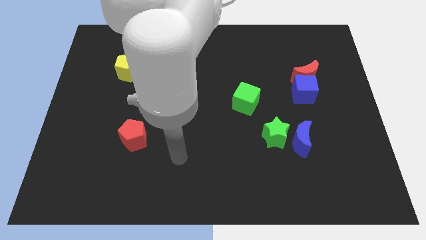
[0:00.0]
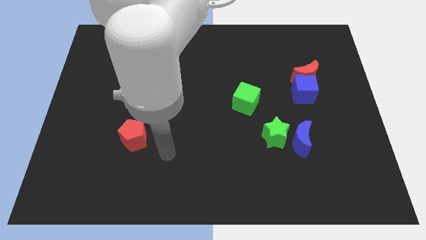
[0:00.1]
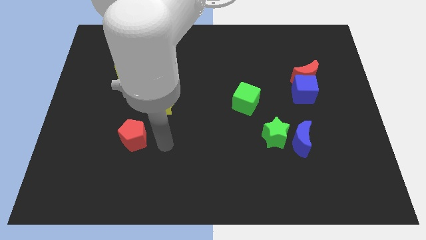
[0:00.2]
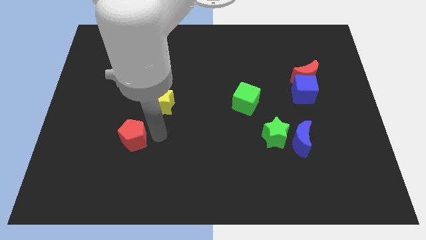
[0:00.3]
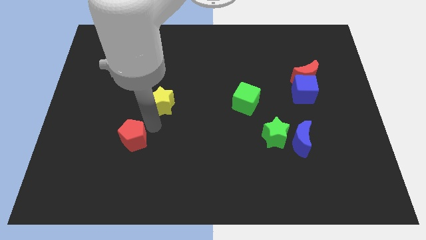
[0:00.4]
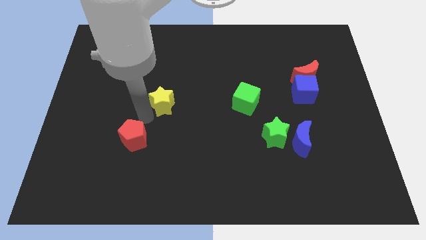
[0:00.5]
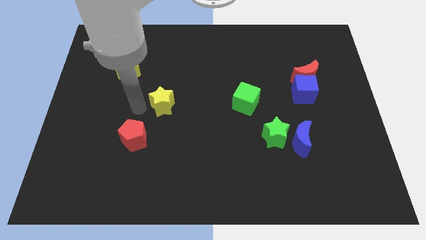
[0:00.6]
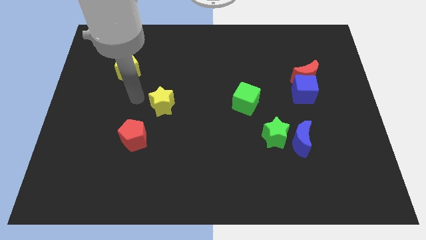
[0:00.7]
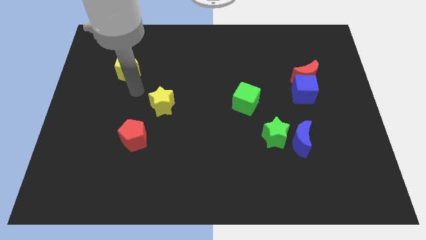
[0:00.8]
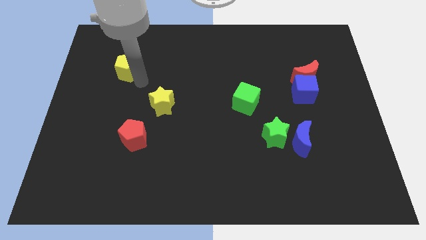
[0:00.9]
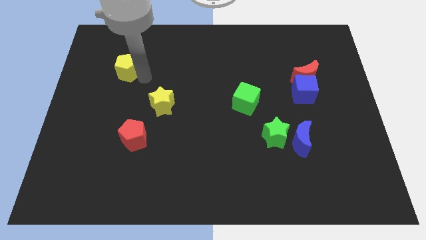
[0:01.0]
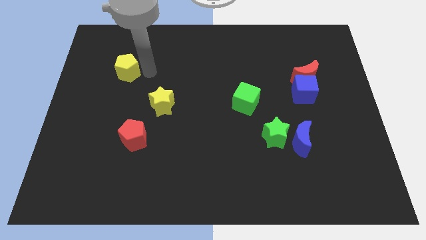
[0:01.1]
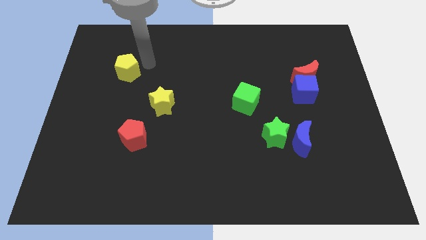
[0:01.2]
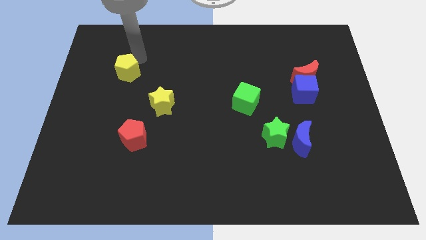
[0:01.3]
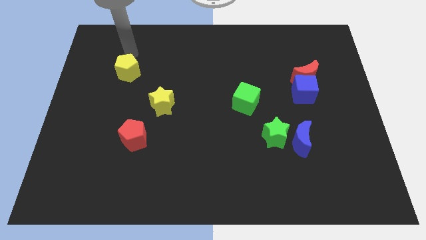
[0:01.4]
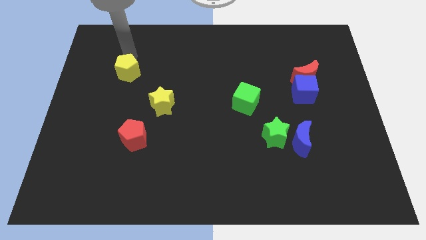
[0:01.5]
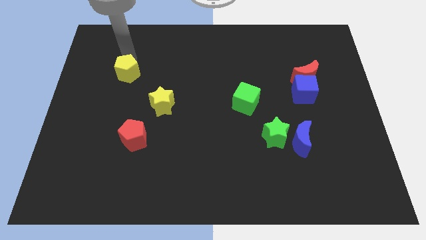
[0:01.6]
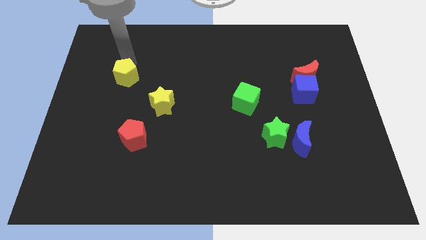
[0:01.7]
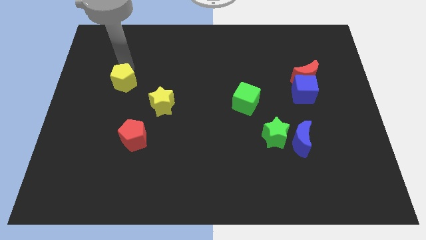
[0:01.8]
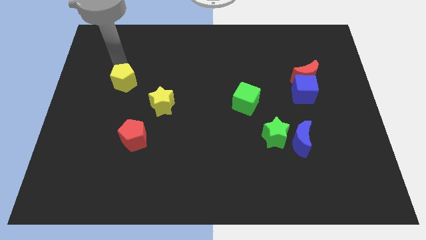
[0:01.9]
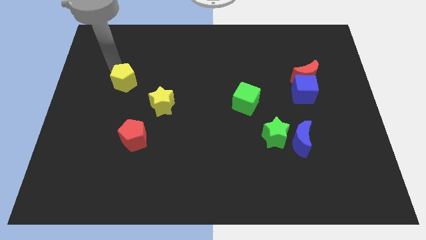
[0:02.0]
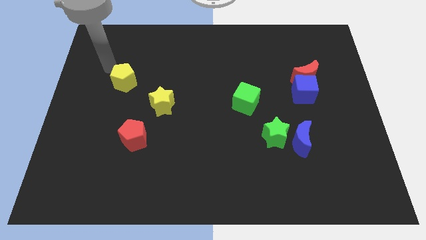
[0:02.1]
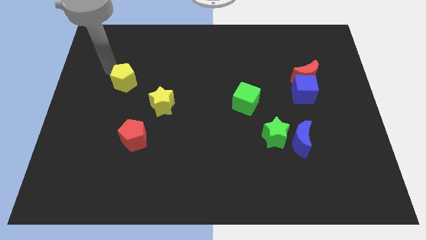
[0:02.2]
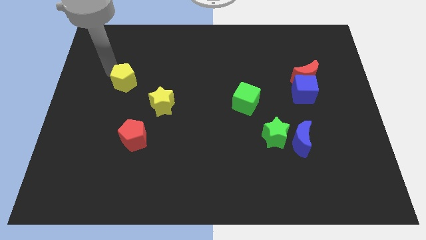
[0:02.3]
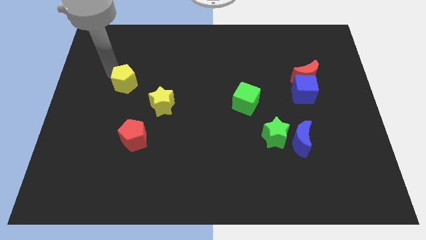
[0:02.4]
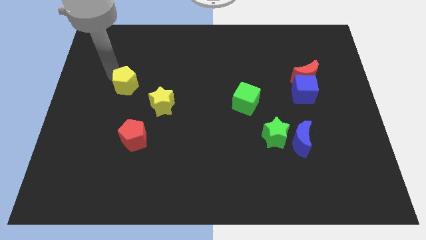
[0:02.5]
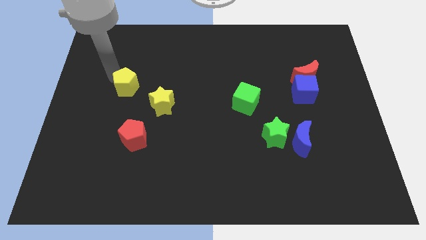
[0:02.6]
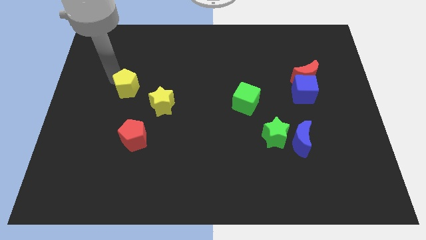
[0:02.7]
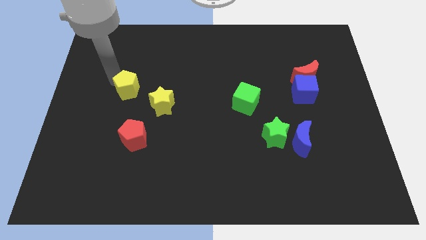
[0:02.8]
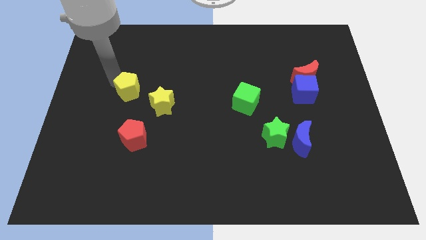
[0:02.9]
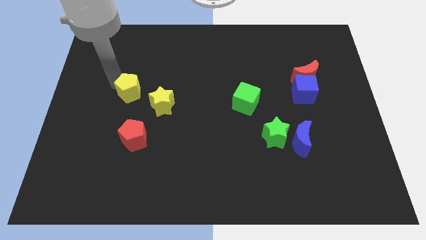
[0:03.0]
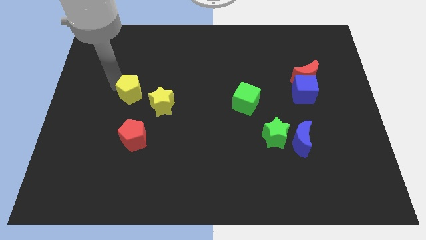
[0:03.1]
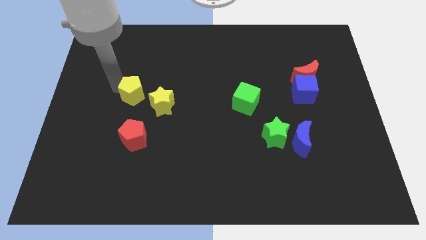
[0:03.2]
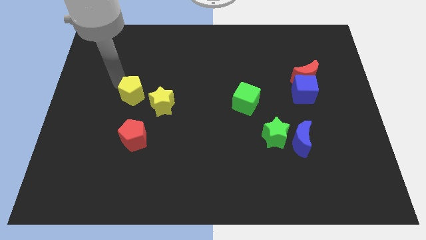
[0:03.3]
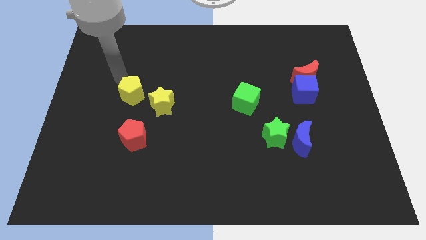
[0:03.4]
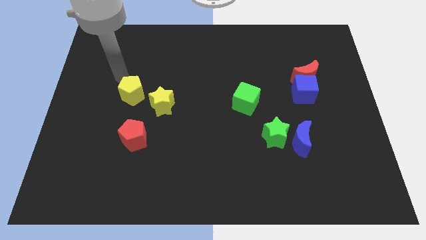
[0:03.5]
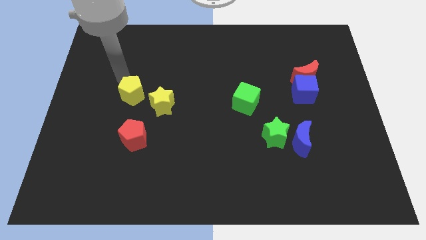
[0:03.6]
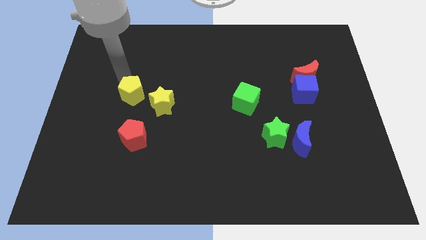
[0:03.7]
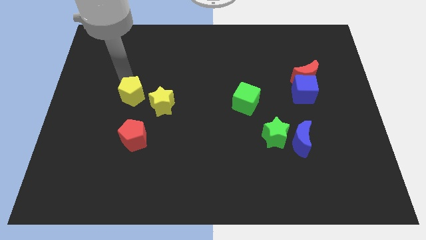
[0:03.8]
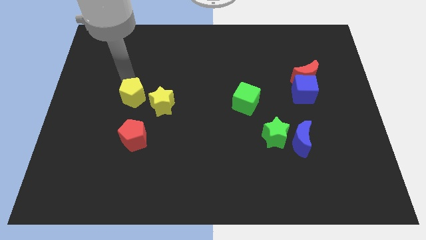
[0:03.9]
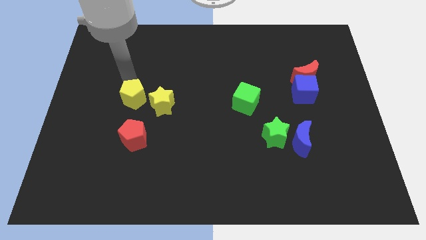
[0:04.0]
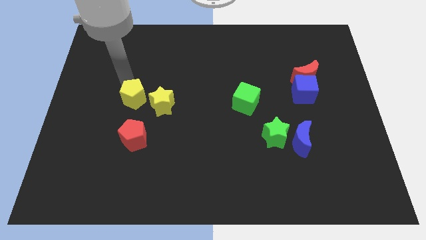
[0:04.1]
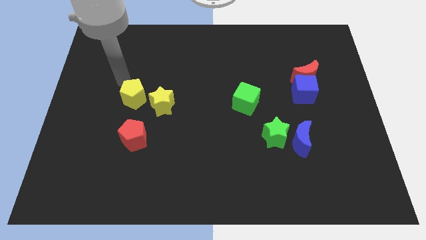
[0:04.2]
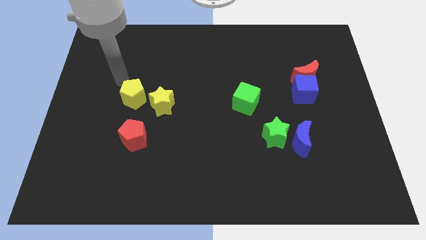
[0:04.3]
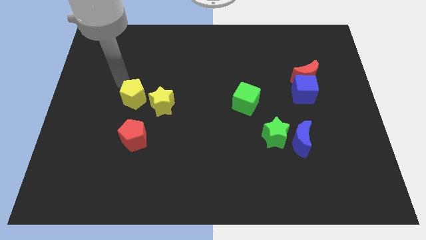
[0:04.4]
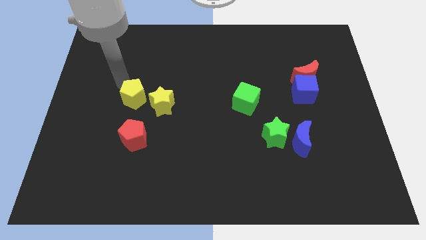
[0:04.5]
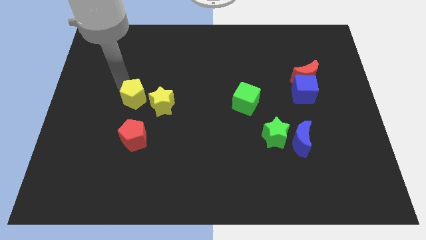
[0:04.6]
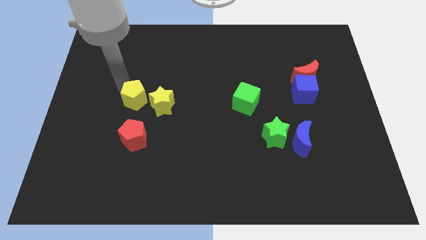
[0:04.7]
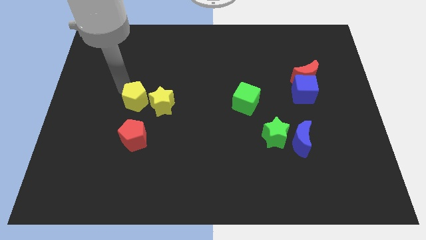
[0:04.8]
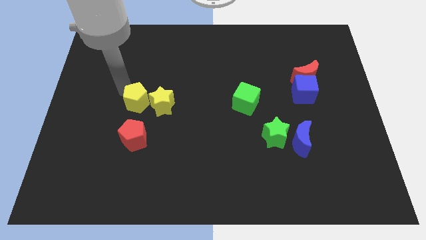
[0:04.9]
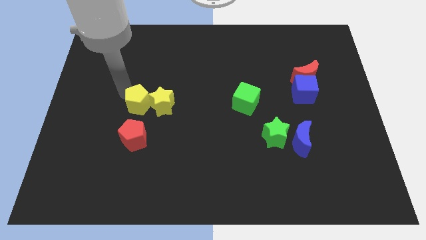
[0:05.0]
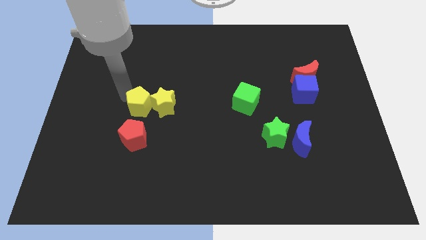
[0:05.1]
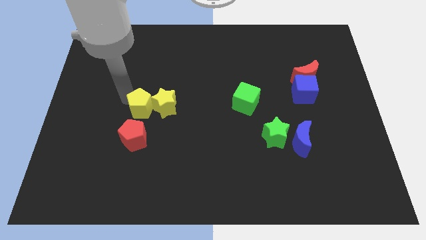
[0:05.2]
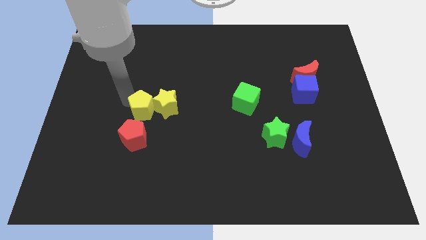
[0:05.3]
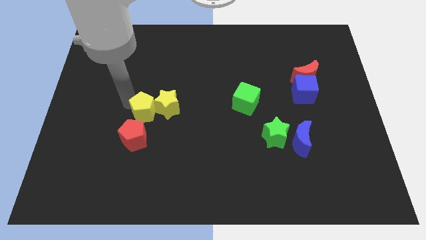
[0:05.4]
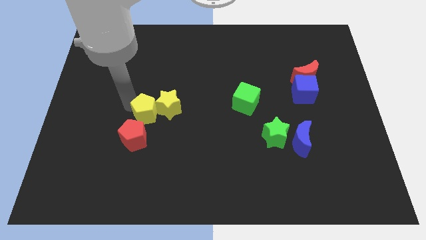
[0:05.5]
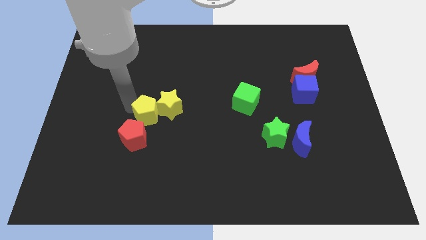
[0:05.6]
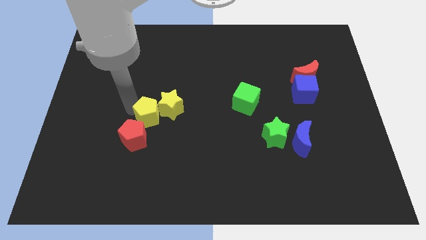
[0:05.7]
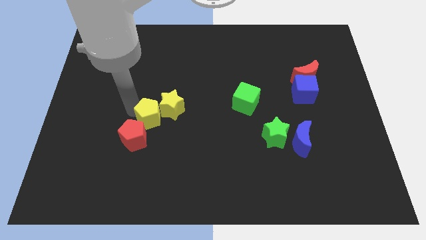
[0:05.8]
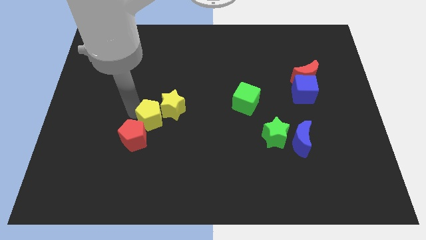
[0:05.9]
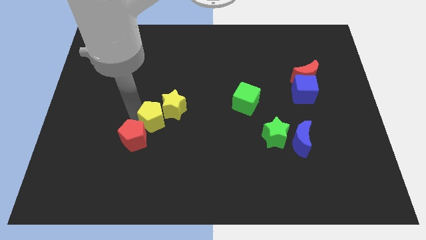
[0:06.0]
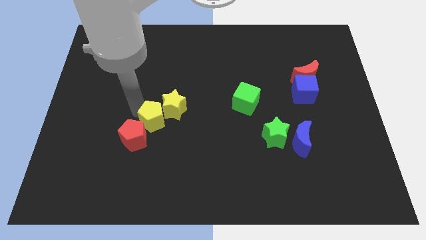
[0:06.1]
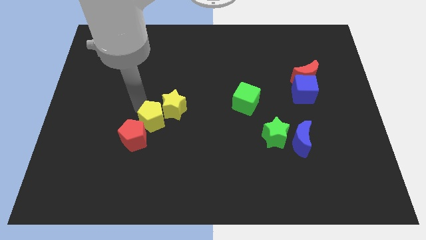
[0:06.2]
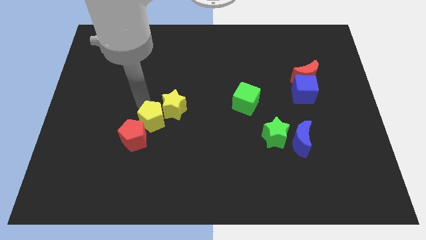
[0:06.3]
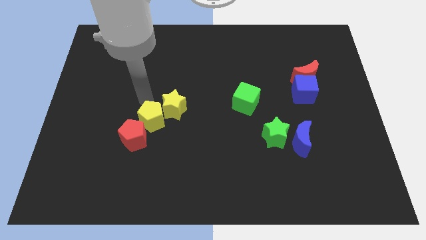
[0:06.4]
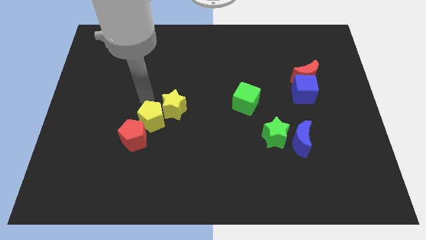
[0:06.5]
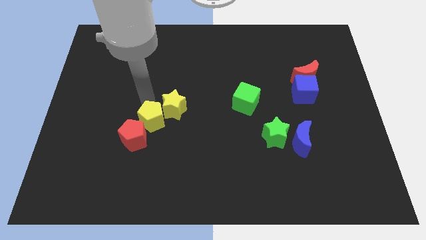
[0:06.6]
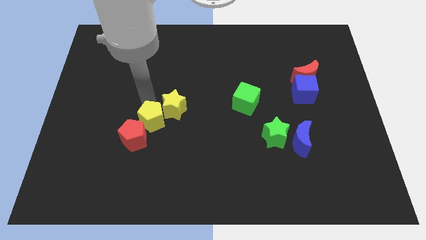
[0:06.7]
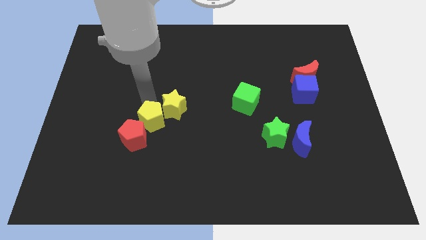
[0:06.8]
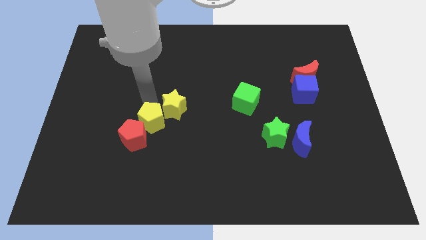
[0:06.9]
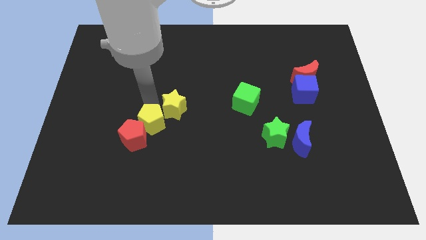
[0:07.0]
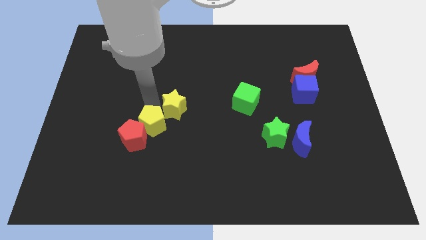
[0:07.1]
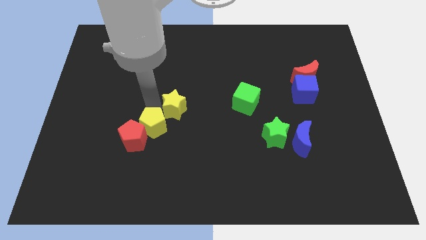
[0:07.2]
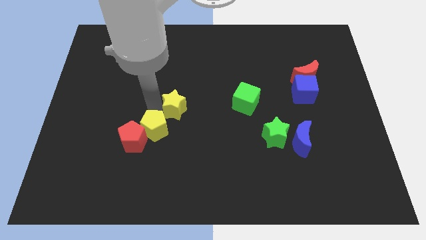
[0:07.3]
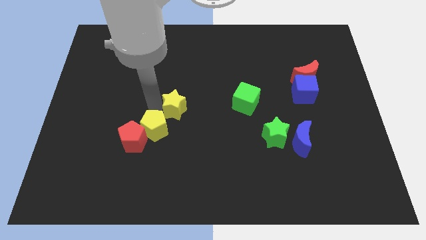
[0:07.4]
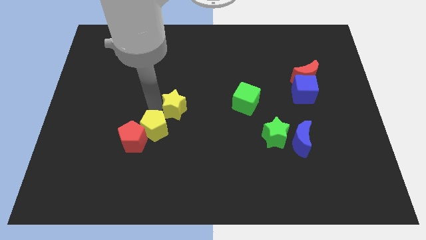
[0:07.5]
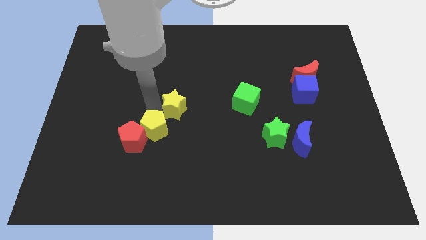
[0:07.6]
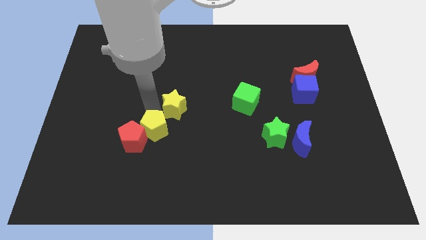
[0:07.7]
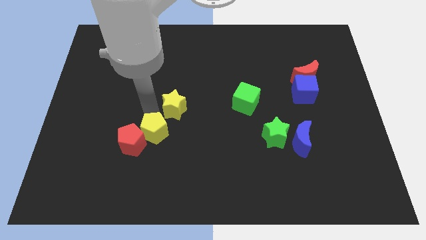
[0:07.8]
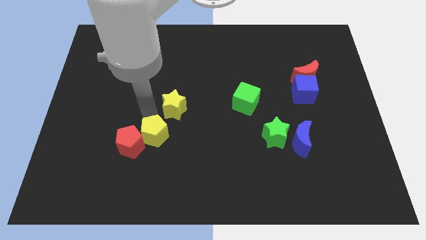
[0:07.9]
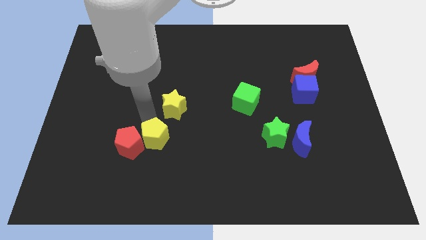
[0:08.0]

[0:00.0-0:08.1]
put the yellow pentagon to the bottom right side of the red pentagon
